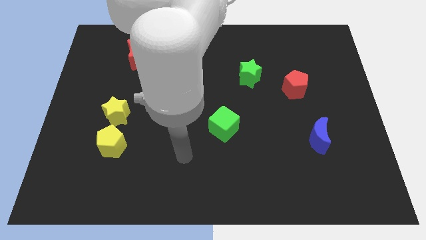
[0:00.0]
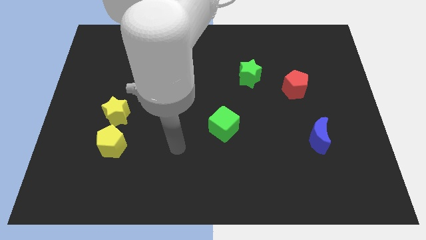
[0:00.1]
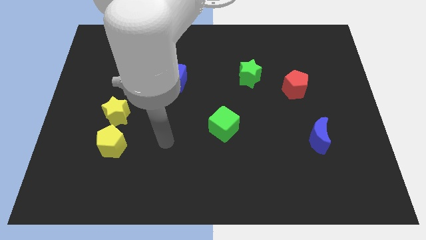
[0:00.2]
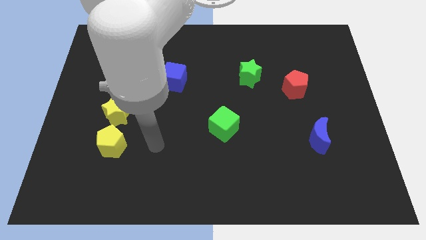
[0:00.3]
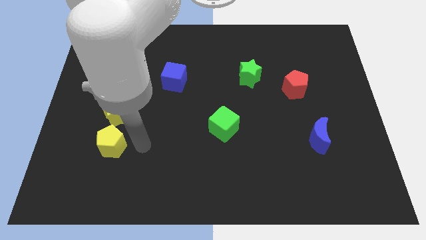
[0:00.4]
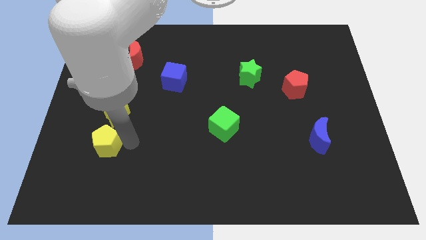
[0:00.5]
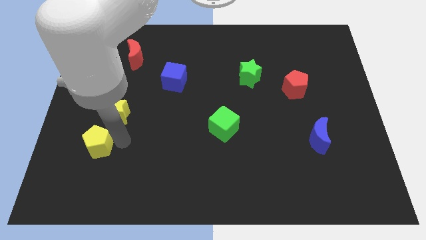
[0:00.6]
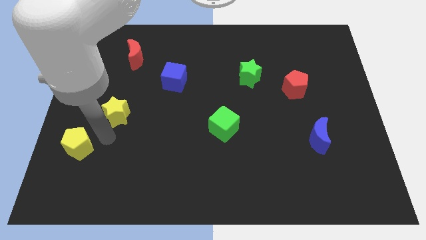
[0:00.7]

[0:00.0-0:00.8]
separate the yellow star from the yellow pentagon

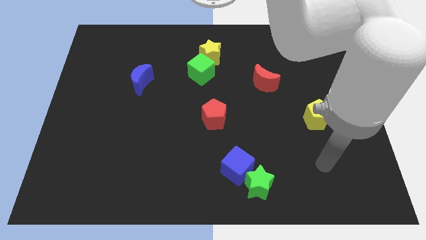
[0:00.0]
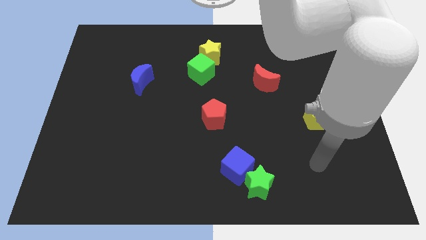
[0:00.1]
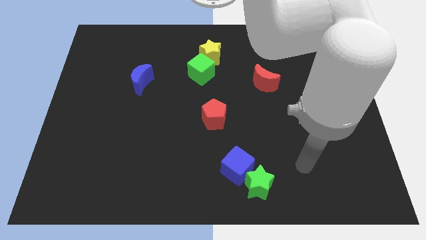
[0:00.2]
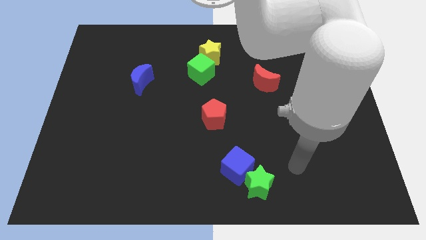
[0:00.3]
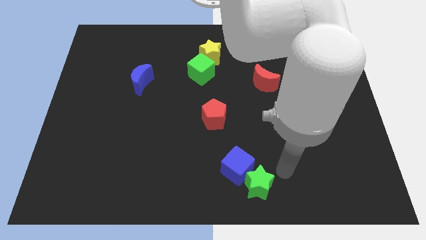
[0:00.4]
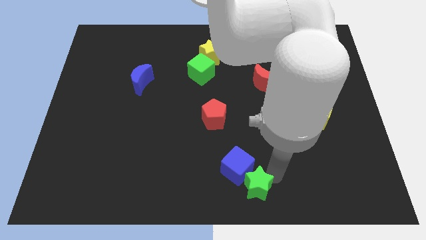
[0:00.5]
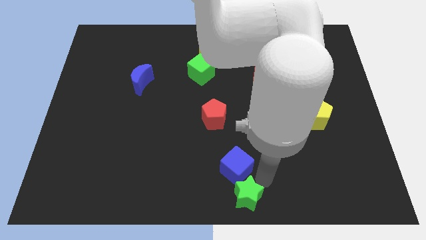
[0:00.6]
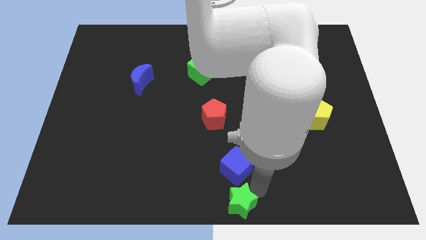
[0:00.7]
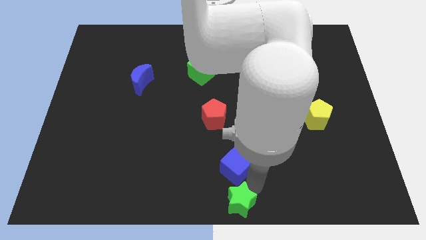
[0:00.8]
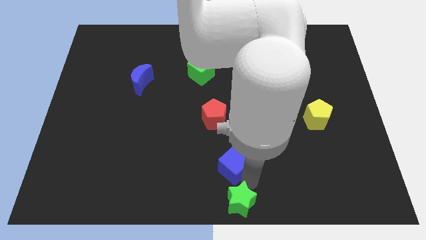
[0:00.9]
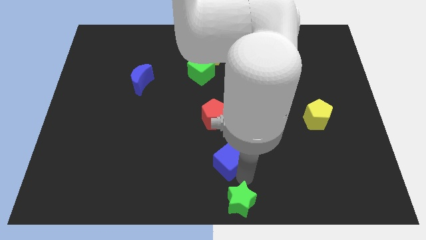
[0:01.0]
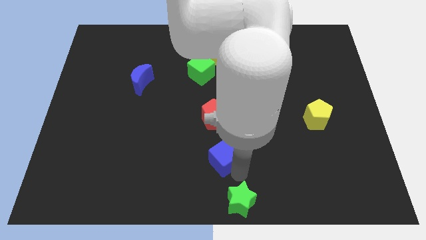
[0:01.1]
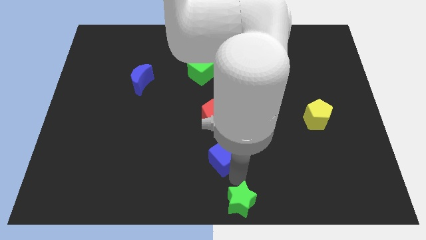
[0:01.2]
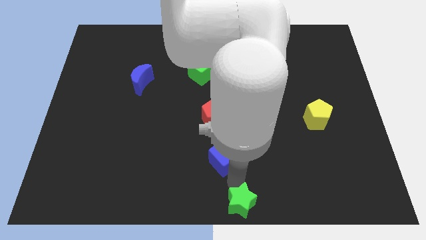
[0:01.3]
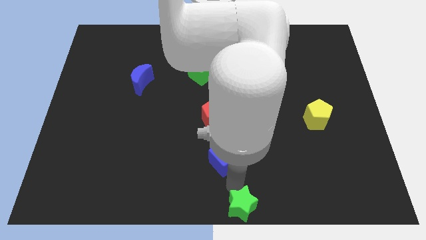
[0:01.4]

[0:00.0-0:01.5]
move the blue cube away from the green star

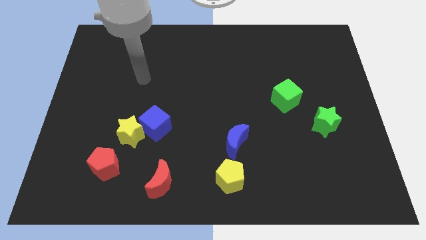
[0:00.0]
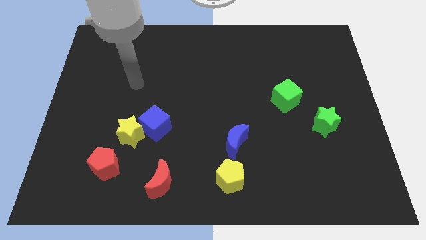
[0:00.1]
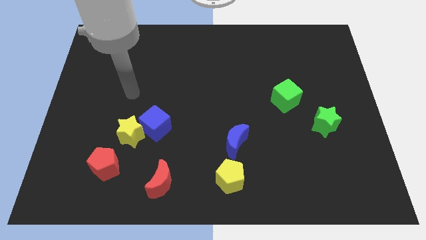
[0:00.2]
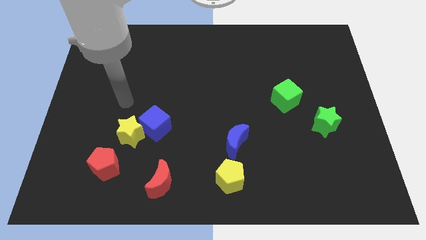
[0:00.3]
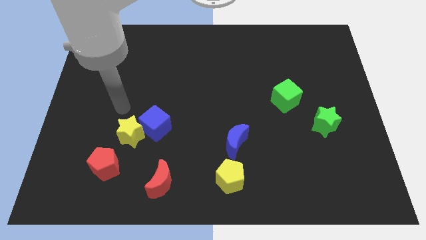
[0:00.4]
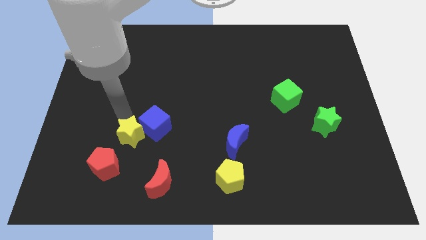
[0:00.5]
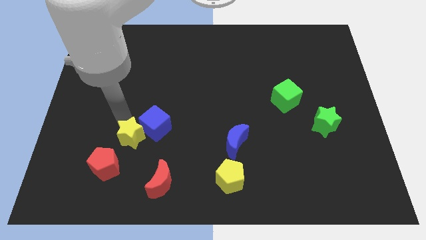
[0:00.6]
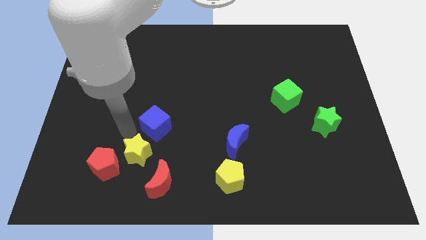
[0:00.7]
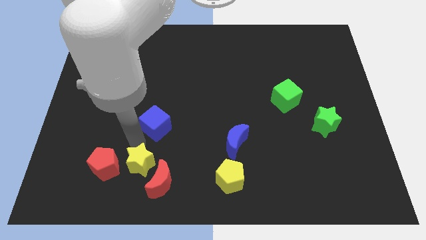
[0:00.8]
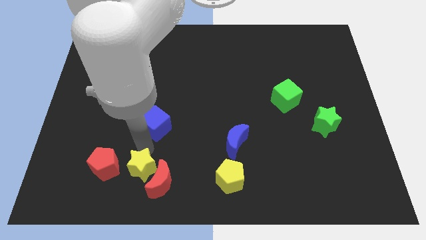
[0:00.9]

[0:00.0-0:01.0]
move the blue cube away from the yellow star

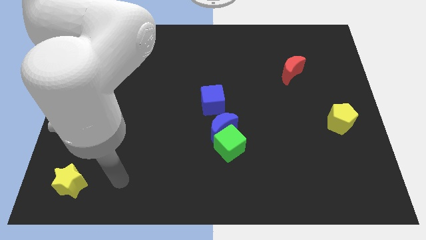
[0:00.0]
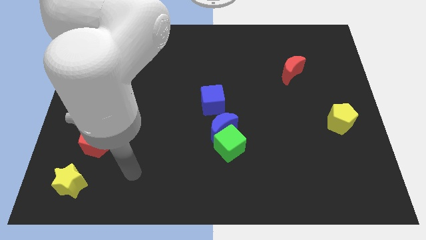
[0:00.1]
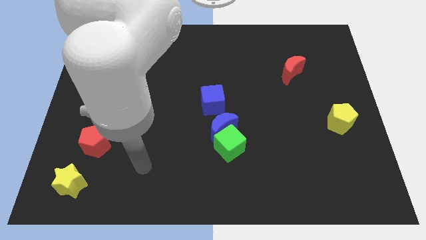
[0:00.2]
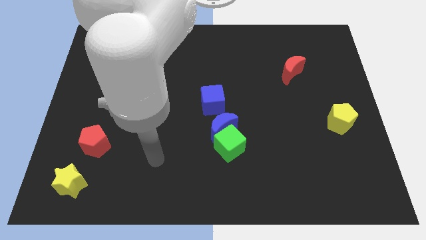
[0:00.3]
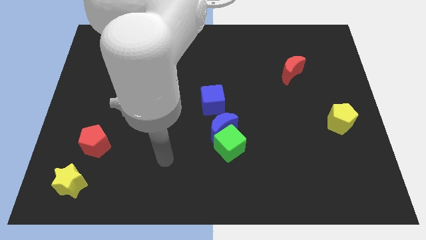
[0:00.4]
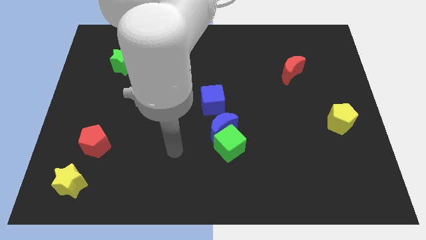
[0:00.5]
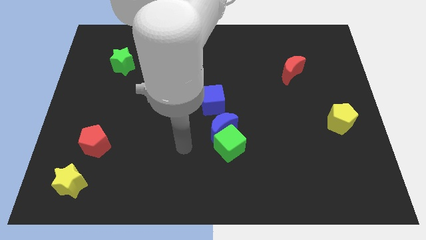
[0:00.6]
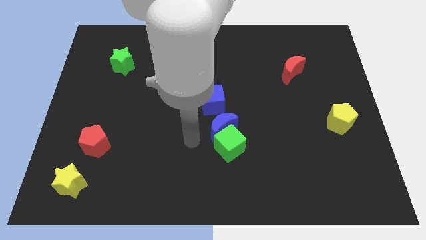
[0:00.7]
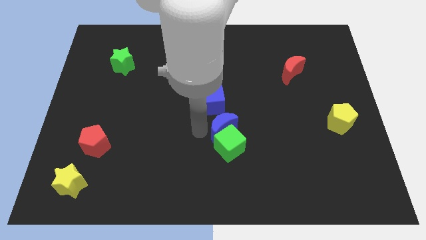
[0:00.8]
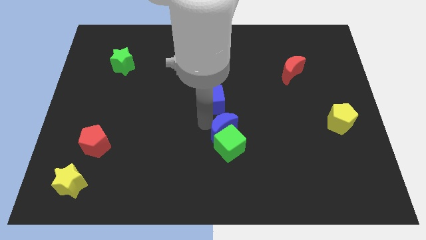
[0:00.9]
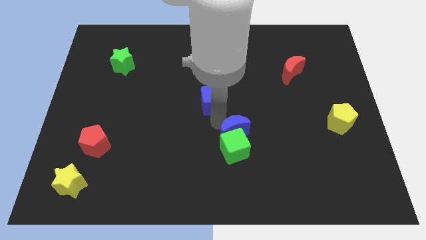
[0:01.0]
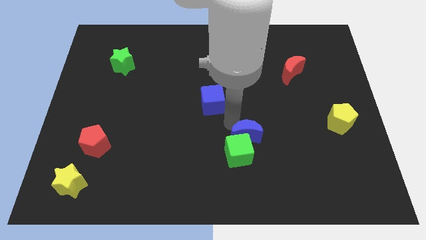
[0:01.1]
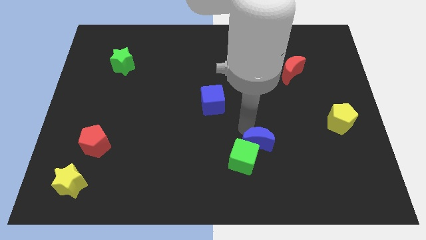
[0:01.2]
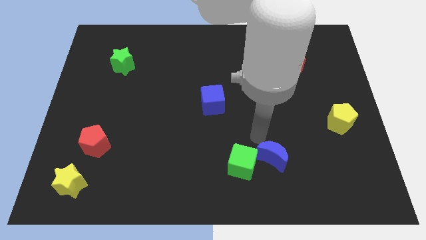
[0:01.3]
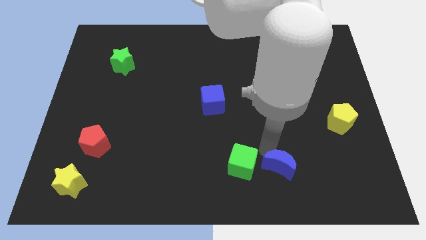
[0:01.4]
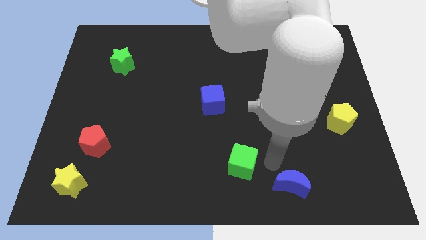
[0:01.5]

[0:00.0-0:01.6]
move the green cube away from the blue moon

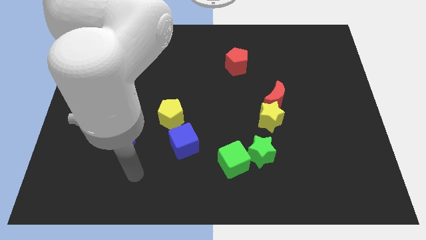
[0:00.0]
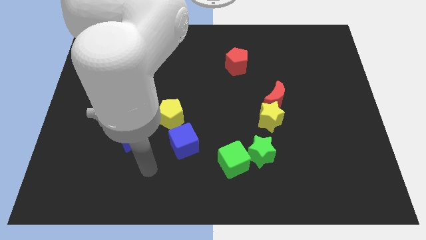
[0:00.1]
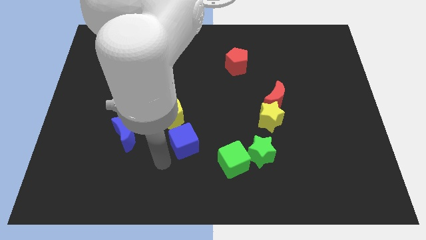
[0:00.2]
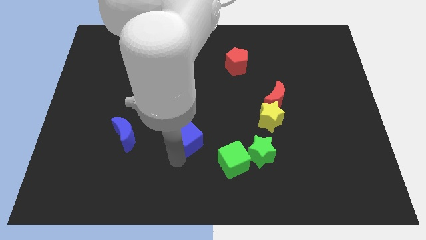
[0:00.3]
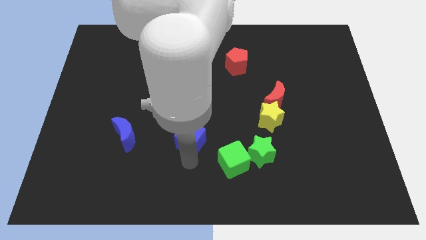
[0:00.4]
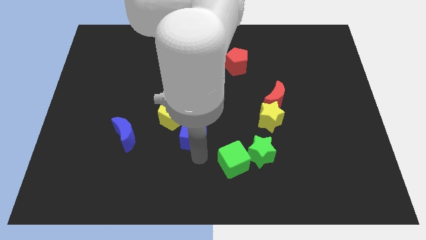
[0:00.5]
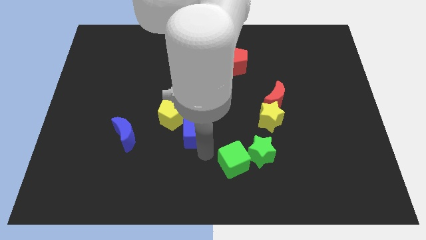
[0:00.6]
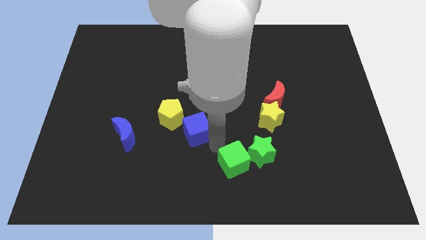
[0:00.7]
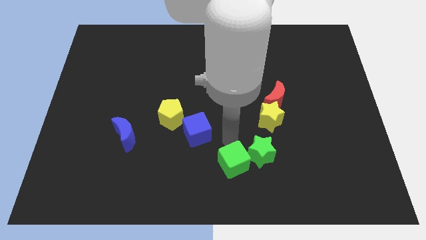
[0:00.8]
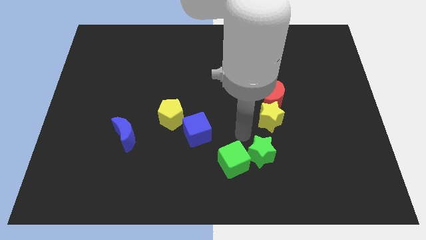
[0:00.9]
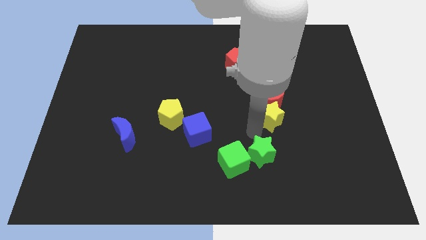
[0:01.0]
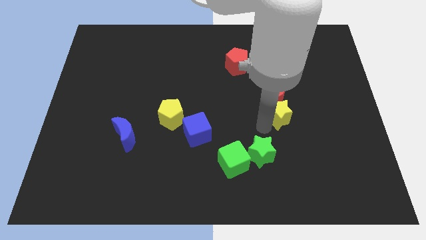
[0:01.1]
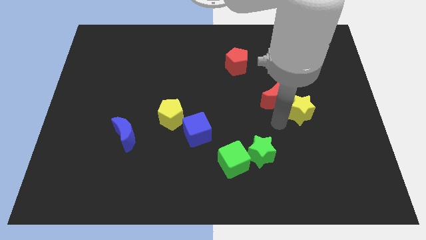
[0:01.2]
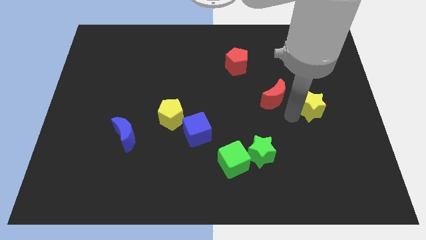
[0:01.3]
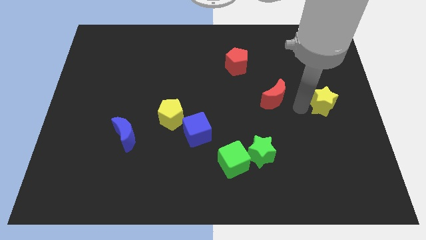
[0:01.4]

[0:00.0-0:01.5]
pull the red moon apart from the yellow star

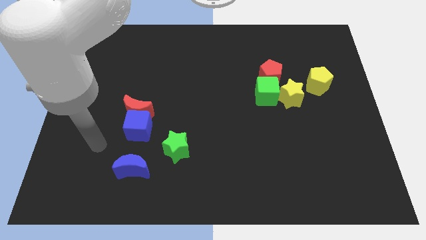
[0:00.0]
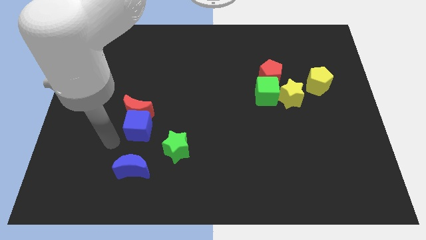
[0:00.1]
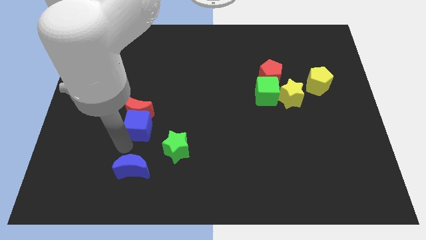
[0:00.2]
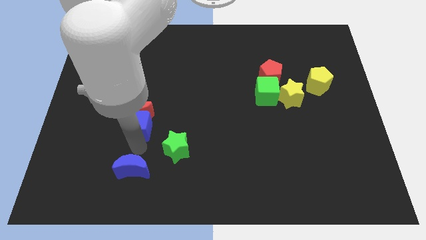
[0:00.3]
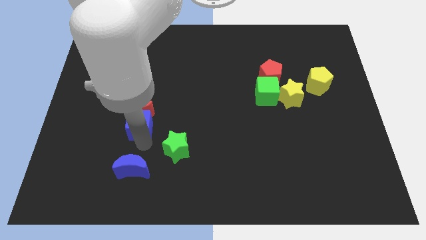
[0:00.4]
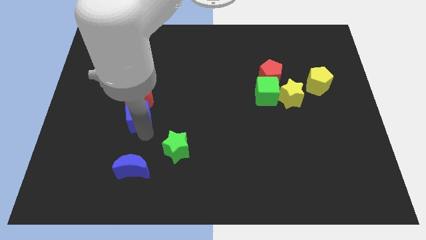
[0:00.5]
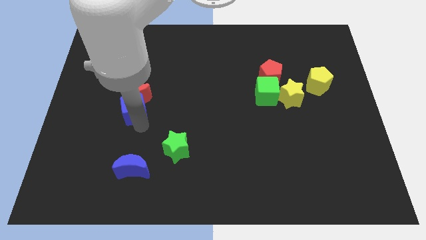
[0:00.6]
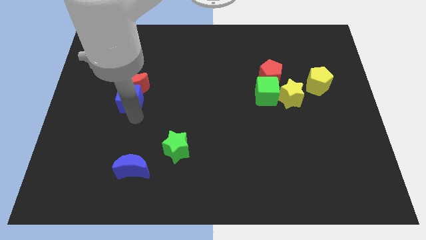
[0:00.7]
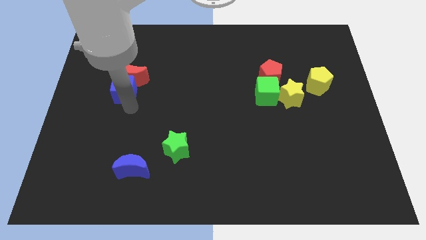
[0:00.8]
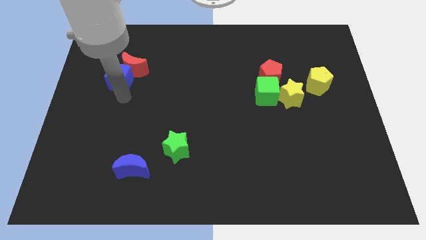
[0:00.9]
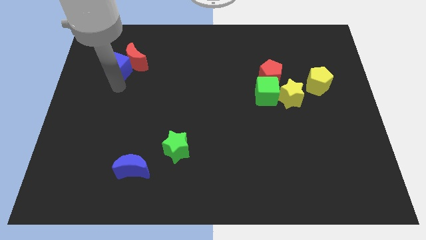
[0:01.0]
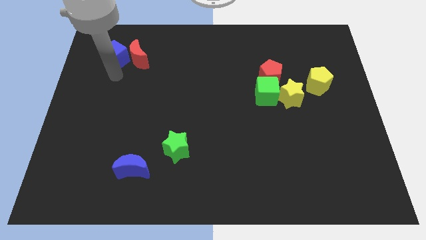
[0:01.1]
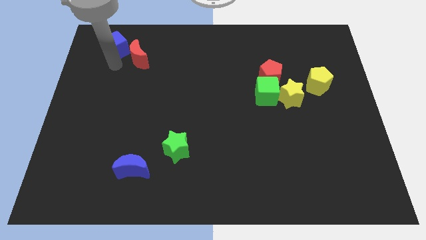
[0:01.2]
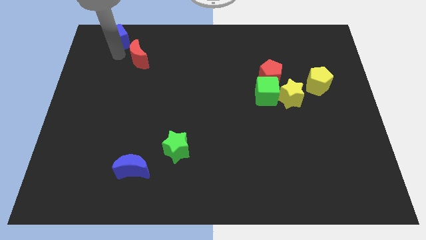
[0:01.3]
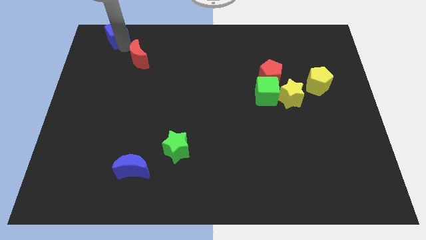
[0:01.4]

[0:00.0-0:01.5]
pull the red moon apart from the blue cube

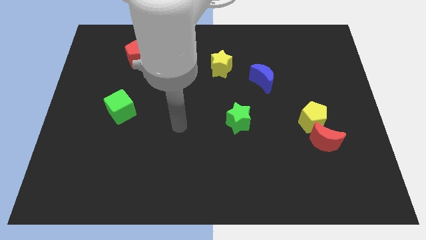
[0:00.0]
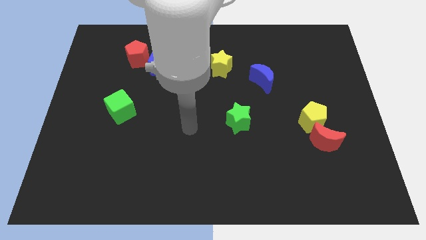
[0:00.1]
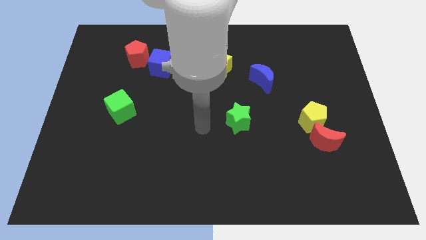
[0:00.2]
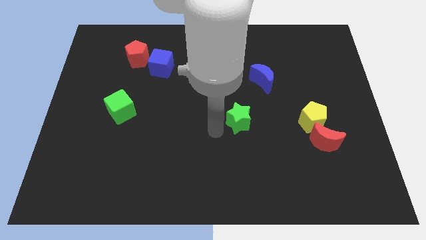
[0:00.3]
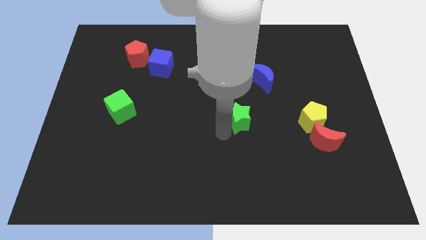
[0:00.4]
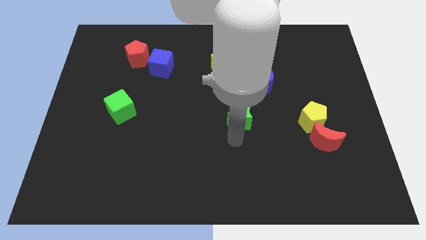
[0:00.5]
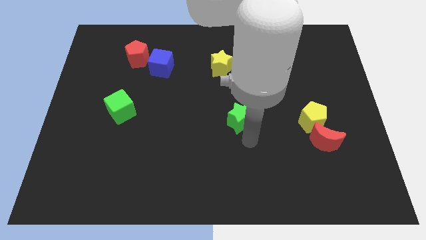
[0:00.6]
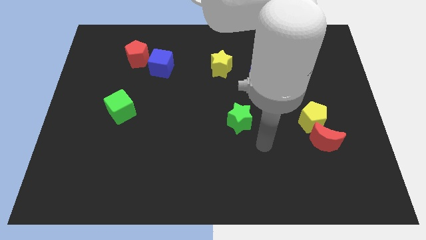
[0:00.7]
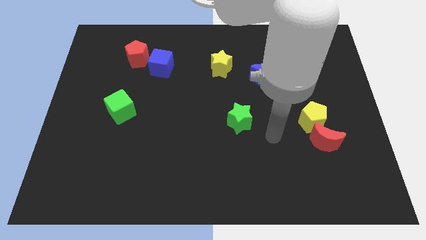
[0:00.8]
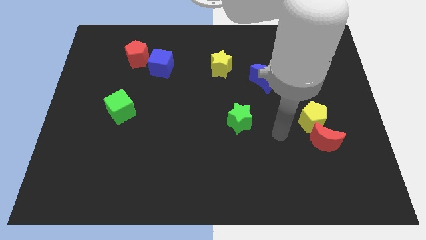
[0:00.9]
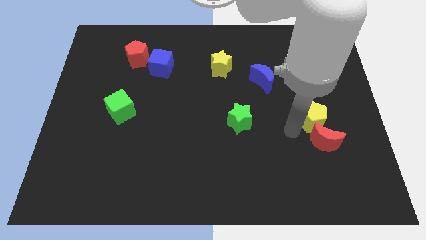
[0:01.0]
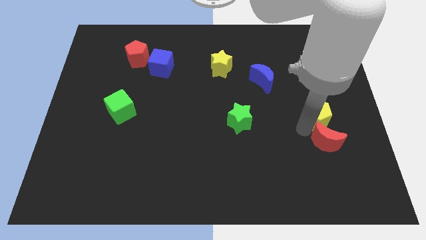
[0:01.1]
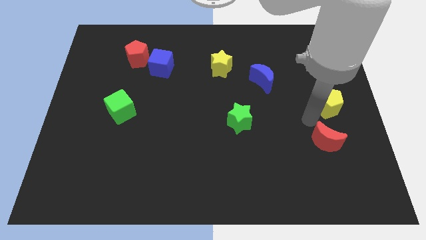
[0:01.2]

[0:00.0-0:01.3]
pull the red moon apart from the yellow pentagon
